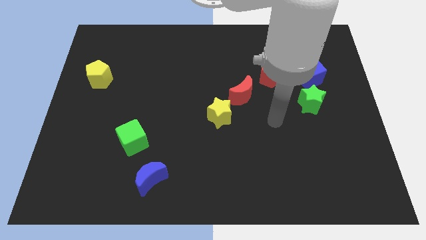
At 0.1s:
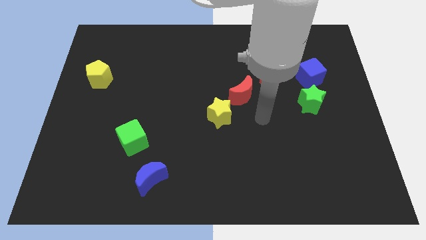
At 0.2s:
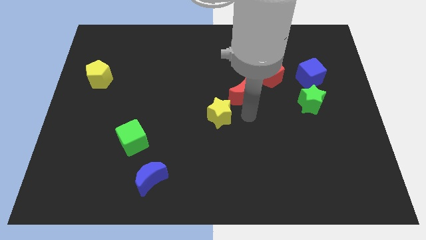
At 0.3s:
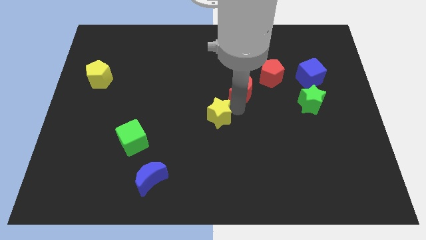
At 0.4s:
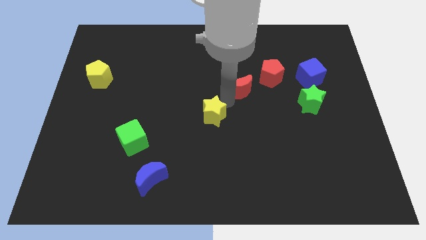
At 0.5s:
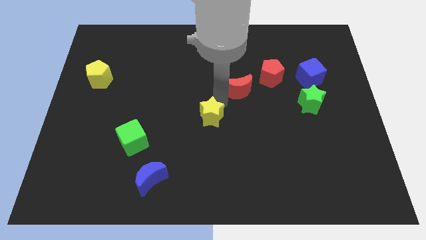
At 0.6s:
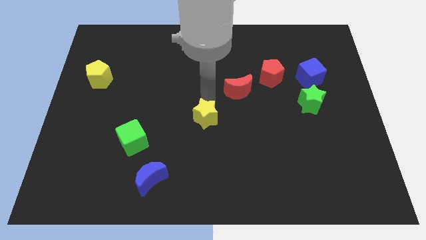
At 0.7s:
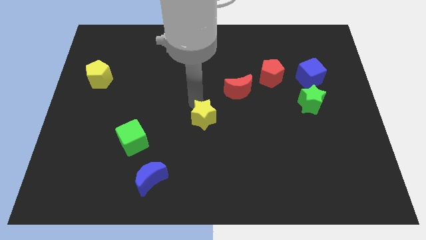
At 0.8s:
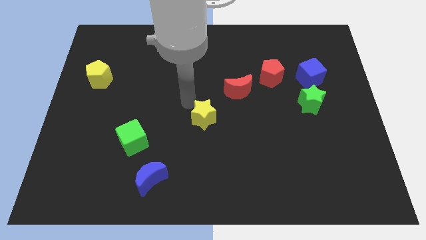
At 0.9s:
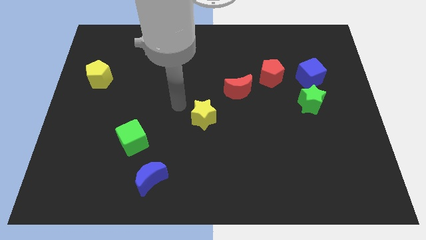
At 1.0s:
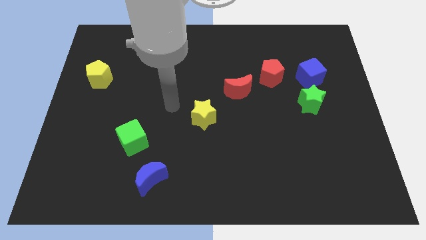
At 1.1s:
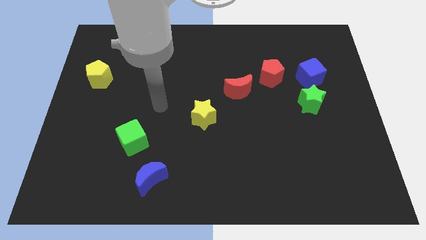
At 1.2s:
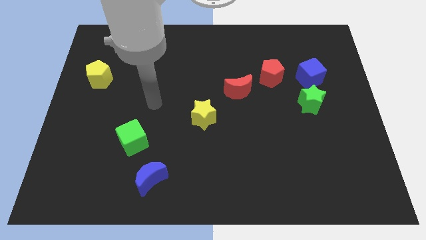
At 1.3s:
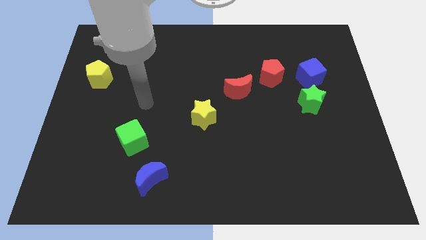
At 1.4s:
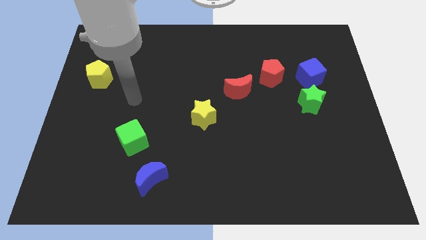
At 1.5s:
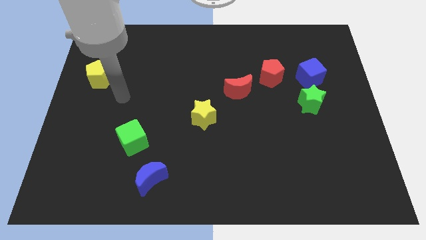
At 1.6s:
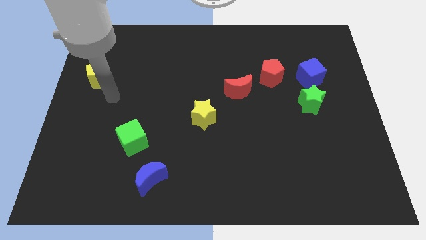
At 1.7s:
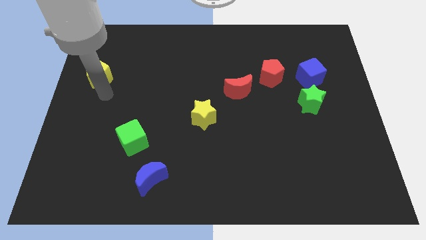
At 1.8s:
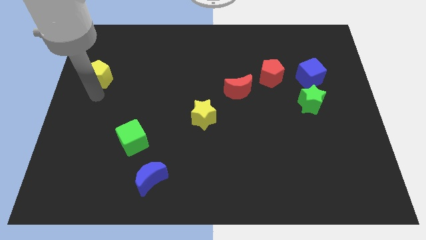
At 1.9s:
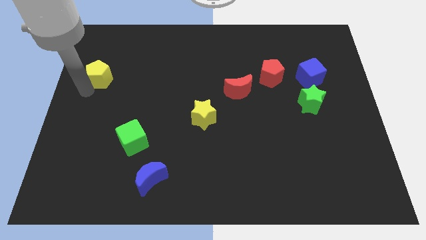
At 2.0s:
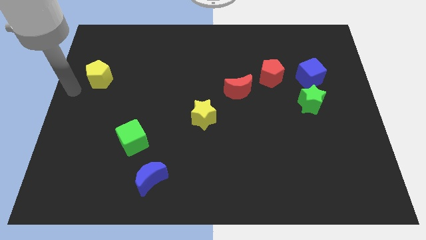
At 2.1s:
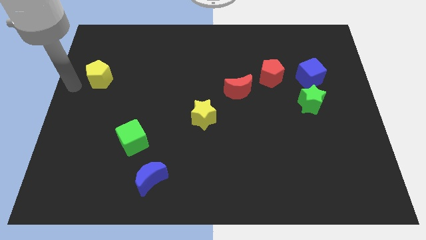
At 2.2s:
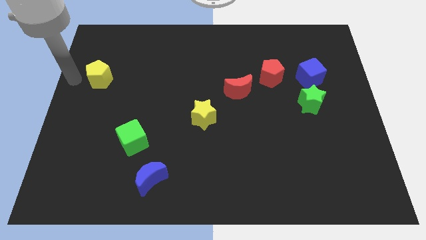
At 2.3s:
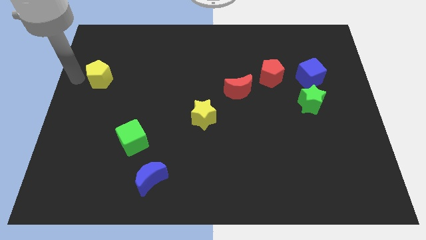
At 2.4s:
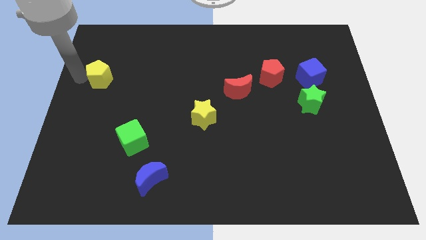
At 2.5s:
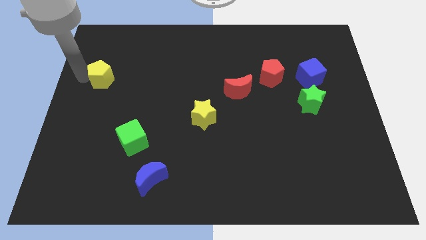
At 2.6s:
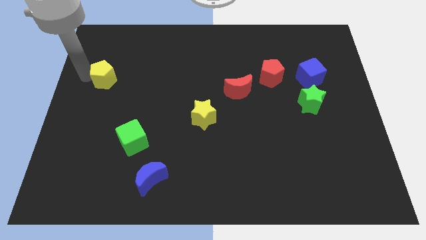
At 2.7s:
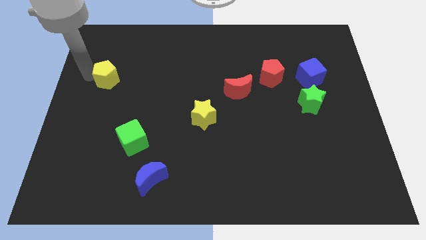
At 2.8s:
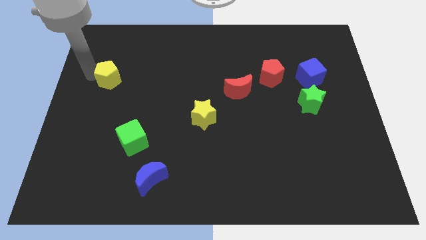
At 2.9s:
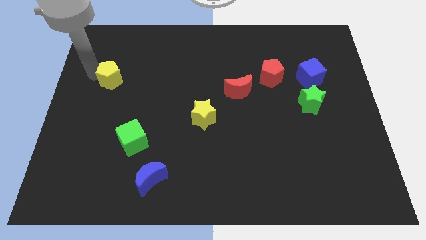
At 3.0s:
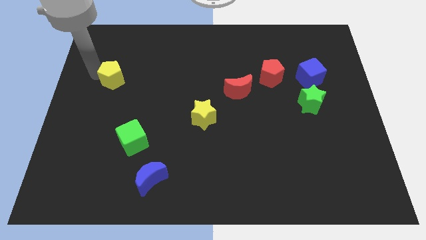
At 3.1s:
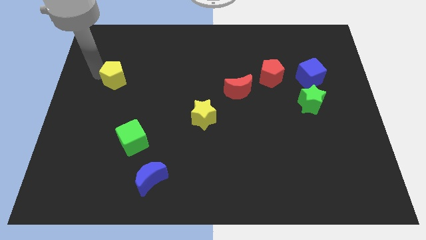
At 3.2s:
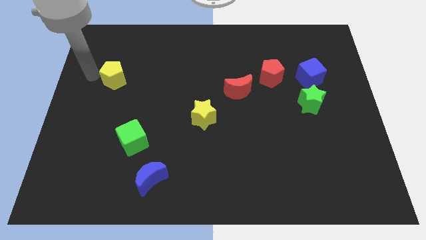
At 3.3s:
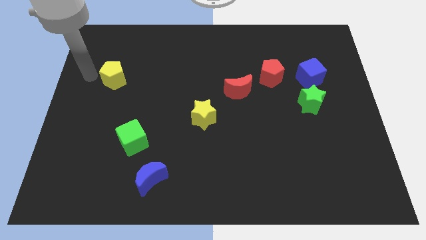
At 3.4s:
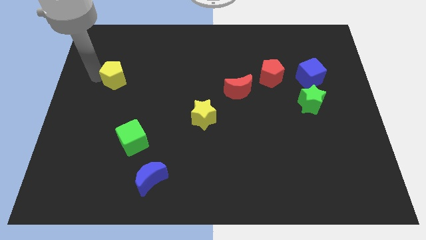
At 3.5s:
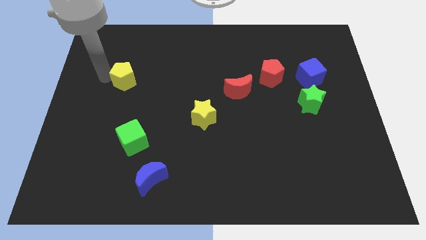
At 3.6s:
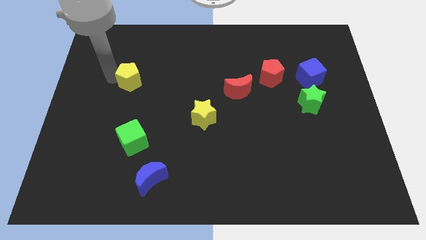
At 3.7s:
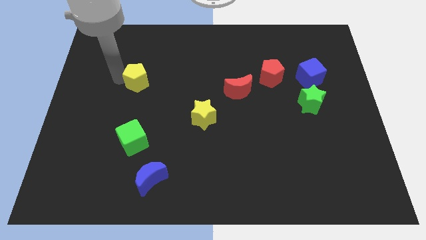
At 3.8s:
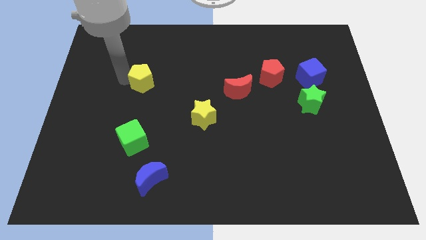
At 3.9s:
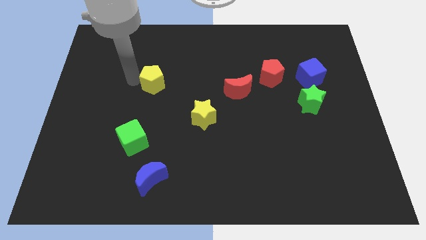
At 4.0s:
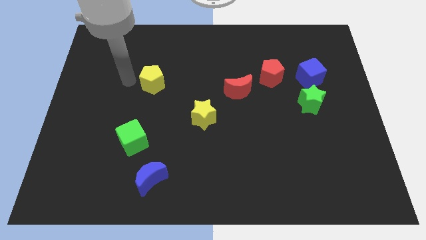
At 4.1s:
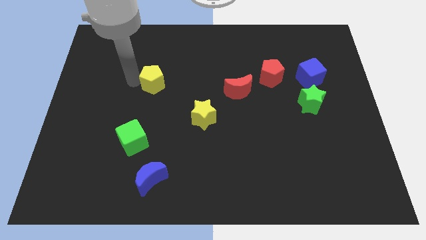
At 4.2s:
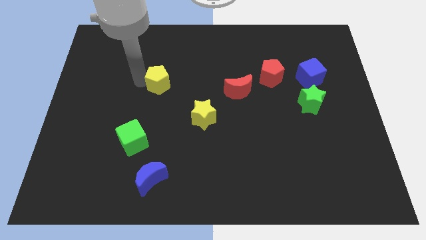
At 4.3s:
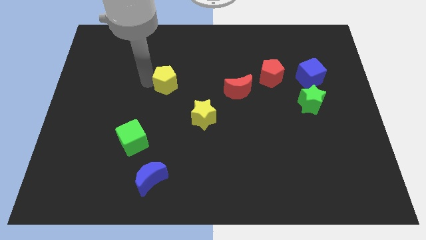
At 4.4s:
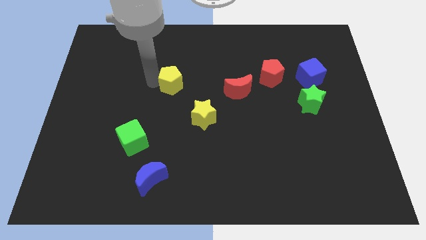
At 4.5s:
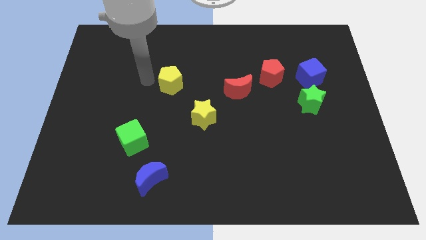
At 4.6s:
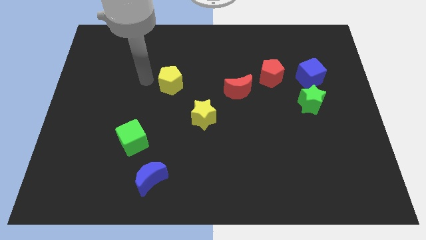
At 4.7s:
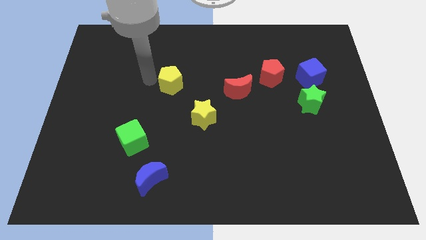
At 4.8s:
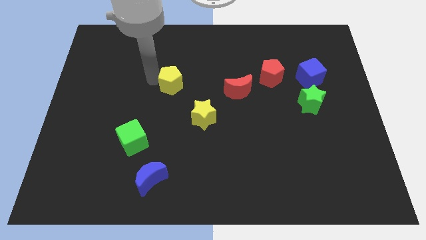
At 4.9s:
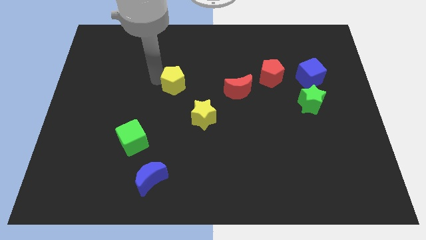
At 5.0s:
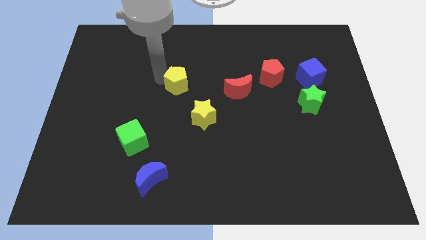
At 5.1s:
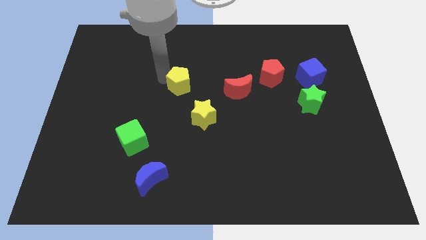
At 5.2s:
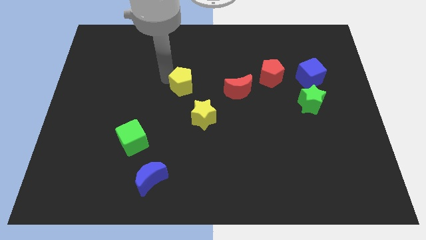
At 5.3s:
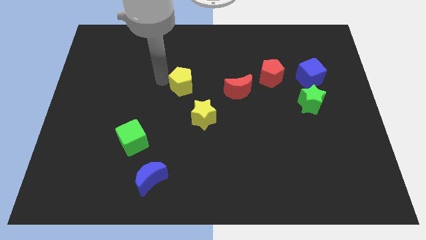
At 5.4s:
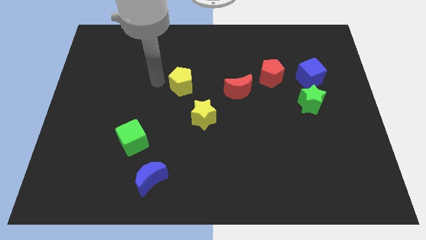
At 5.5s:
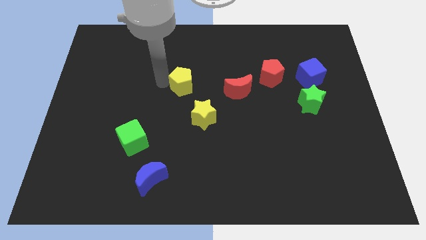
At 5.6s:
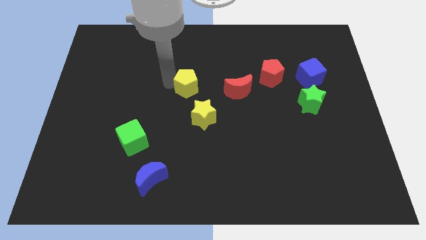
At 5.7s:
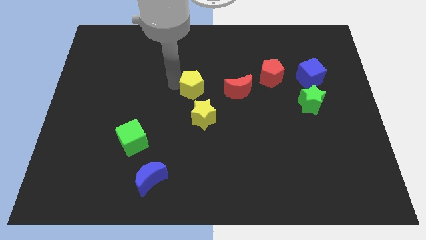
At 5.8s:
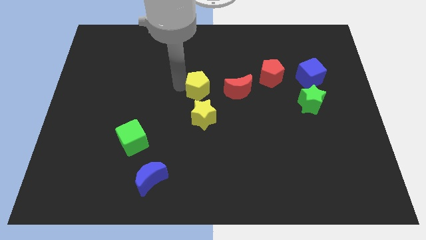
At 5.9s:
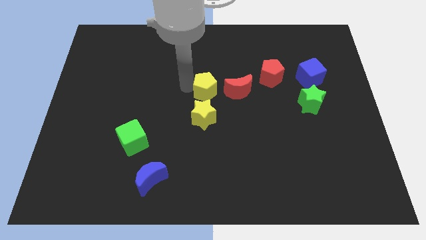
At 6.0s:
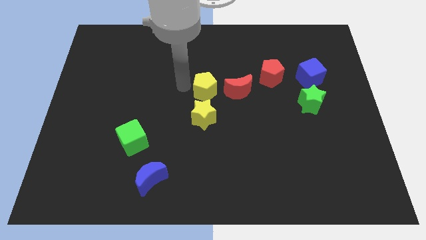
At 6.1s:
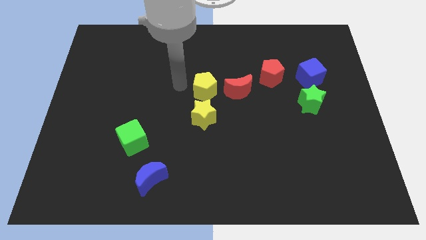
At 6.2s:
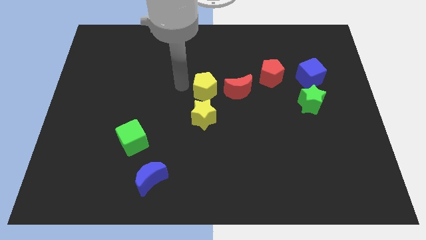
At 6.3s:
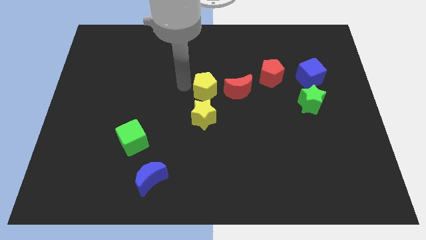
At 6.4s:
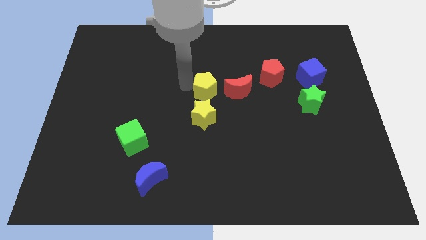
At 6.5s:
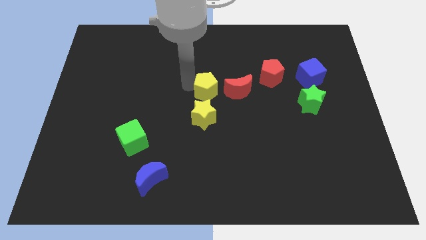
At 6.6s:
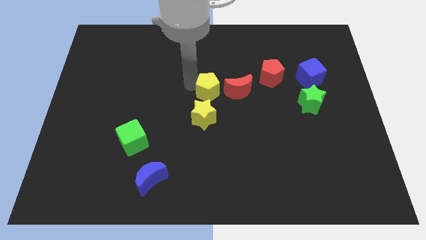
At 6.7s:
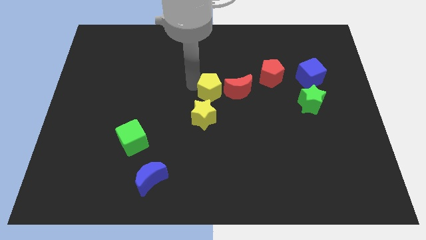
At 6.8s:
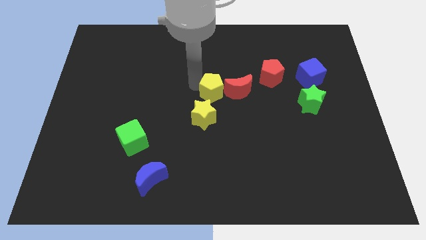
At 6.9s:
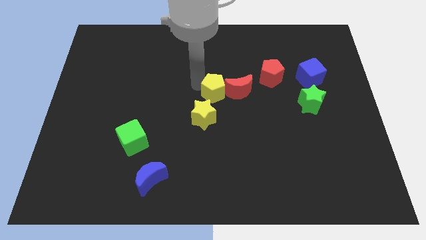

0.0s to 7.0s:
push the yellow pentagon close to the red moon

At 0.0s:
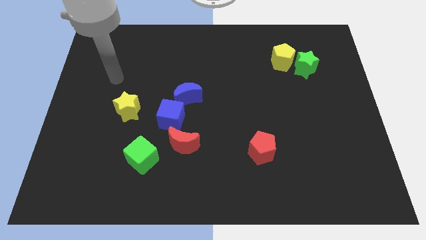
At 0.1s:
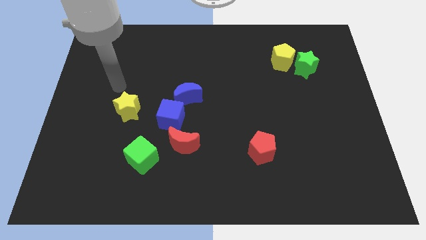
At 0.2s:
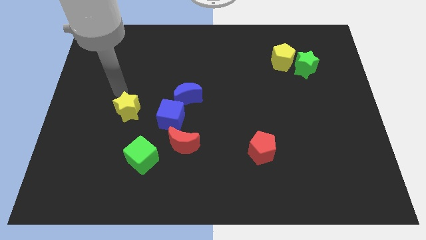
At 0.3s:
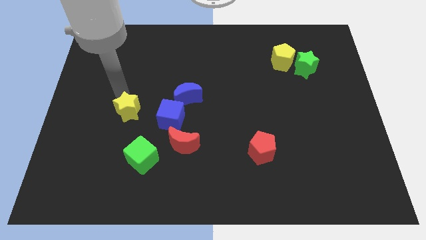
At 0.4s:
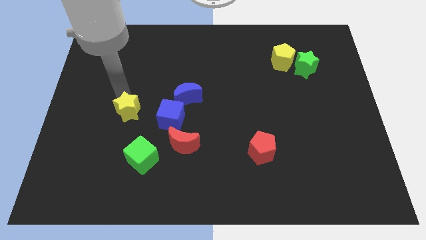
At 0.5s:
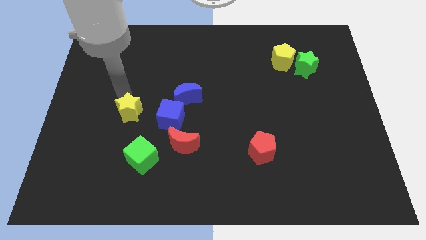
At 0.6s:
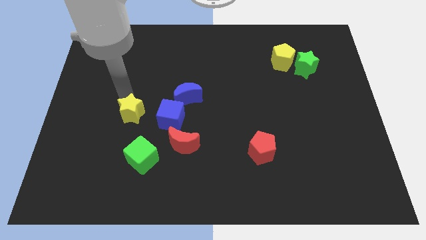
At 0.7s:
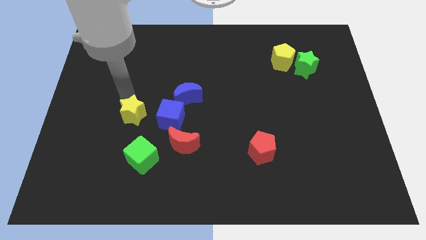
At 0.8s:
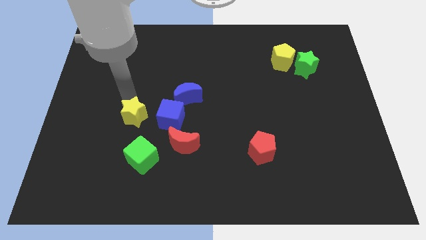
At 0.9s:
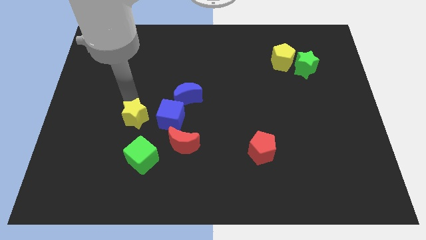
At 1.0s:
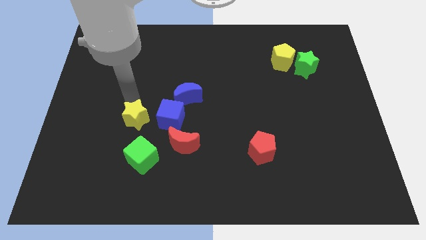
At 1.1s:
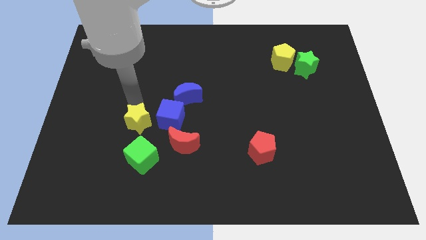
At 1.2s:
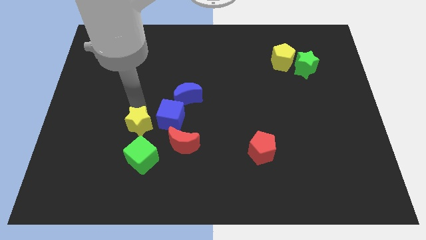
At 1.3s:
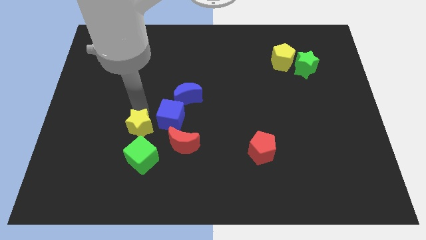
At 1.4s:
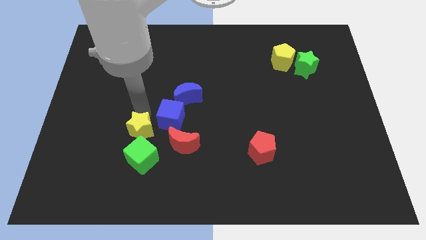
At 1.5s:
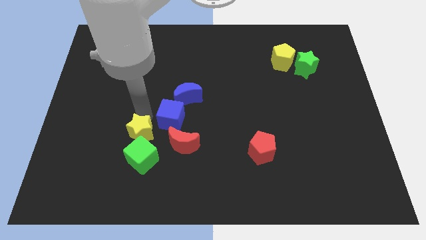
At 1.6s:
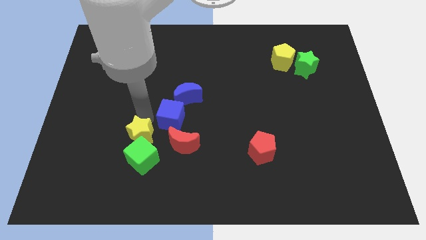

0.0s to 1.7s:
slide the yellow star next to the green cube
